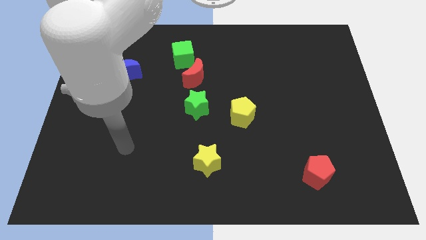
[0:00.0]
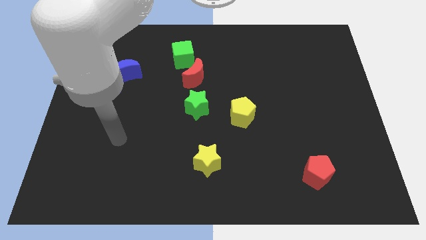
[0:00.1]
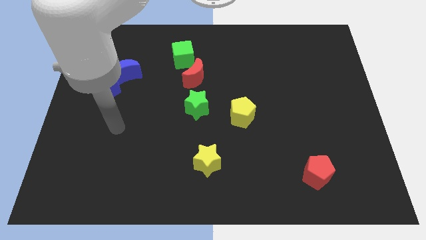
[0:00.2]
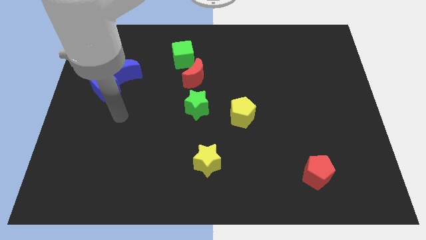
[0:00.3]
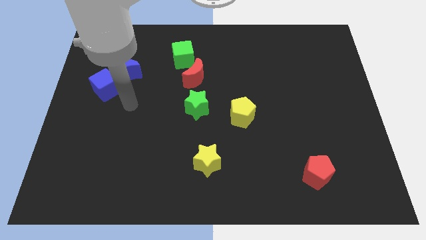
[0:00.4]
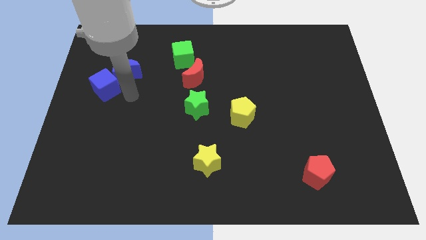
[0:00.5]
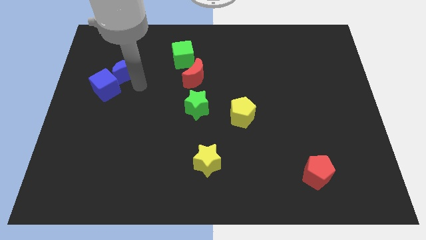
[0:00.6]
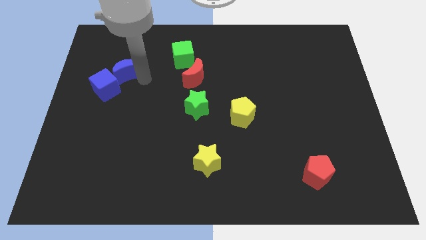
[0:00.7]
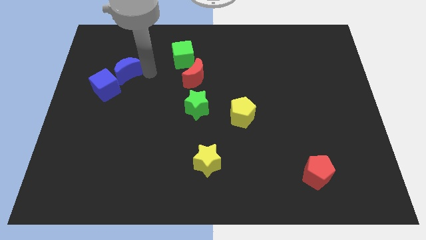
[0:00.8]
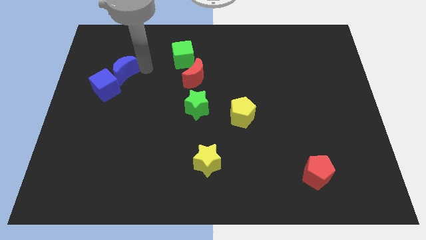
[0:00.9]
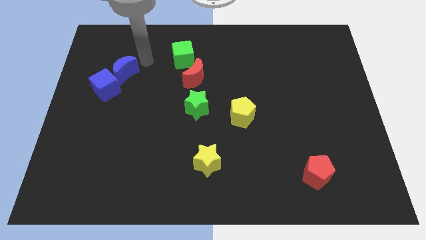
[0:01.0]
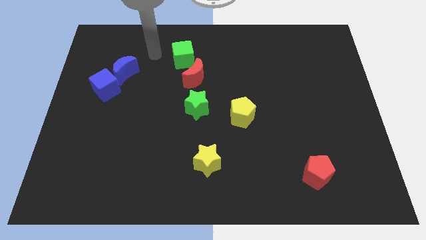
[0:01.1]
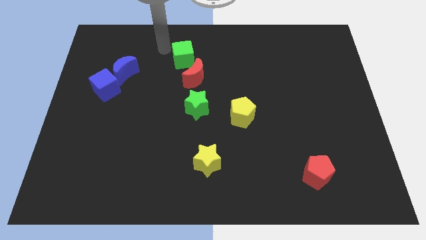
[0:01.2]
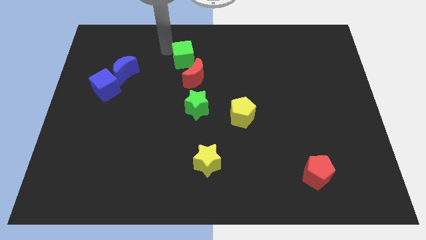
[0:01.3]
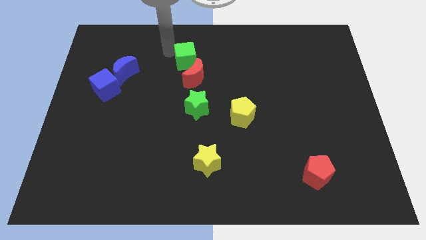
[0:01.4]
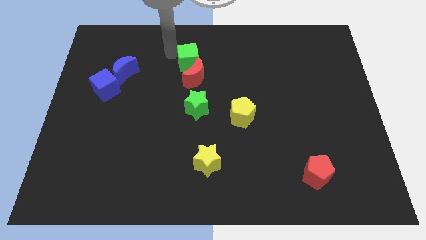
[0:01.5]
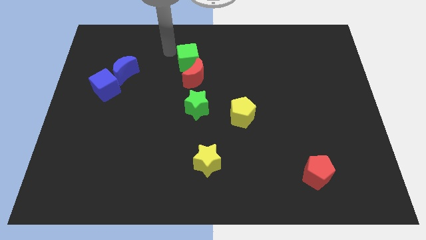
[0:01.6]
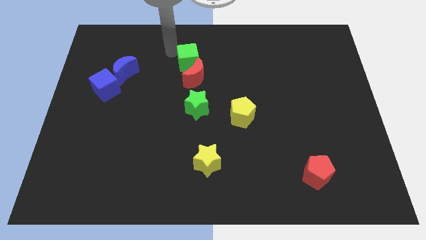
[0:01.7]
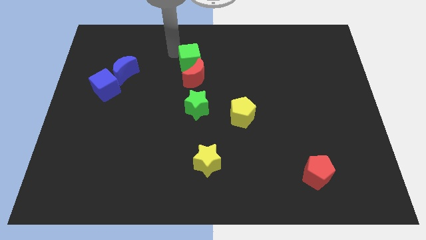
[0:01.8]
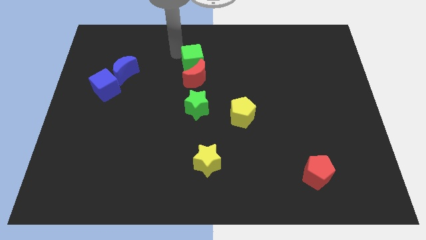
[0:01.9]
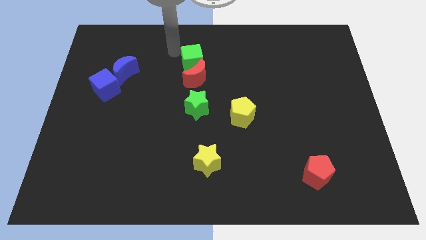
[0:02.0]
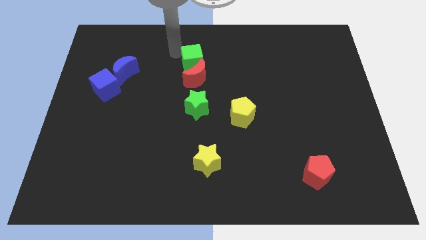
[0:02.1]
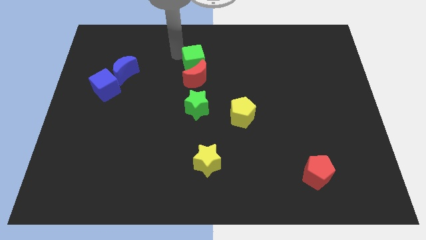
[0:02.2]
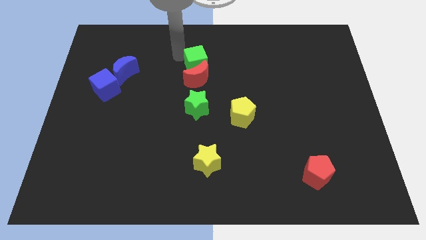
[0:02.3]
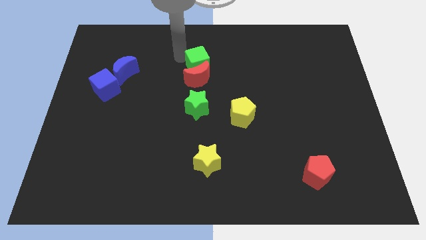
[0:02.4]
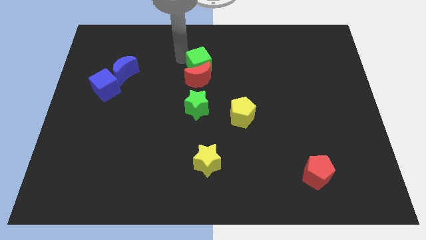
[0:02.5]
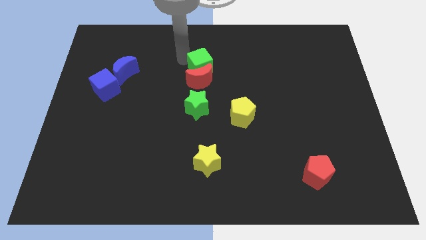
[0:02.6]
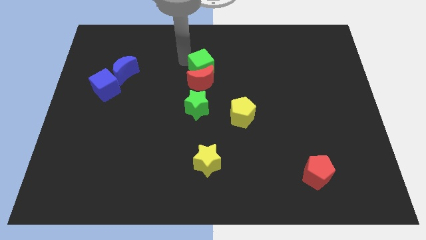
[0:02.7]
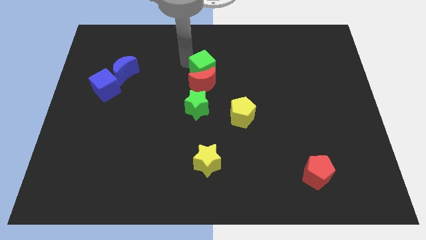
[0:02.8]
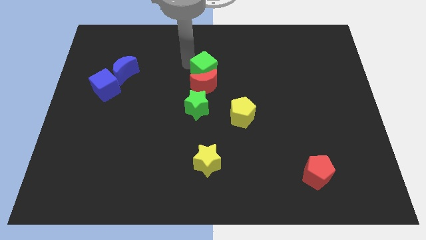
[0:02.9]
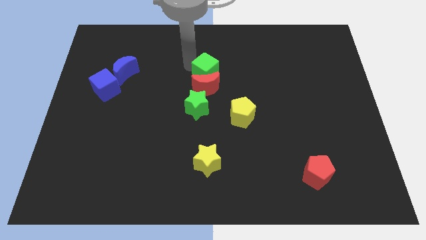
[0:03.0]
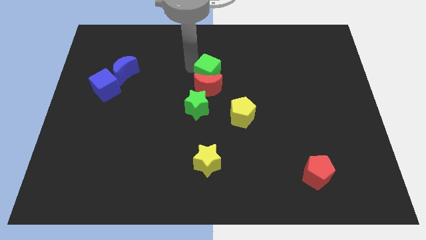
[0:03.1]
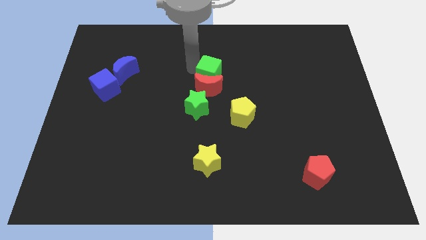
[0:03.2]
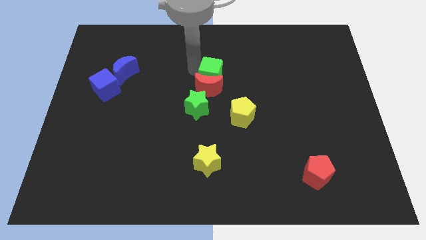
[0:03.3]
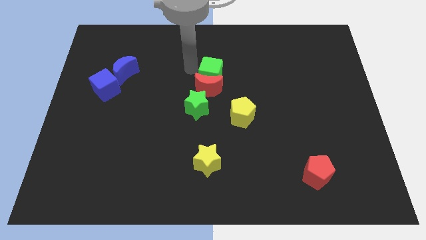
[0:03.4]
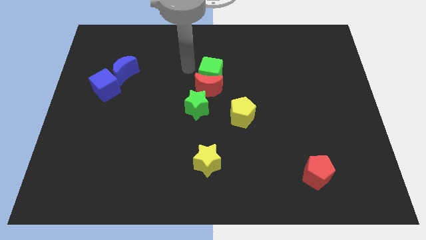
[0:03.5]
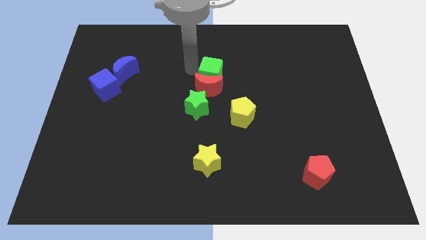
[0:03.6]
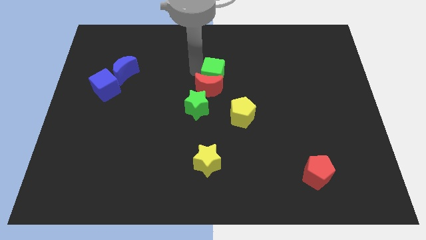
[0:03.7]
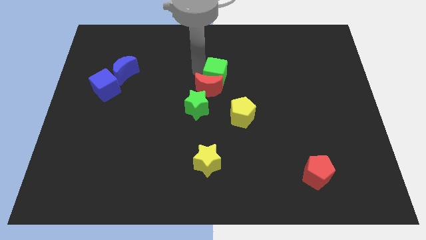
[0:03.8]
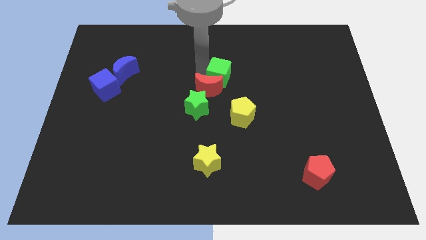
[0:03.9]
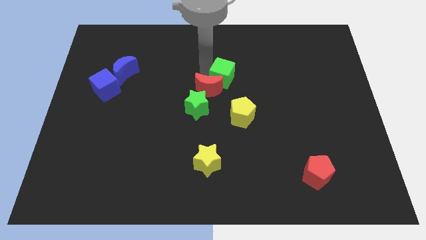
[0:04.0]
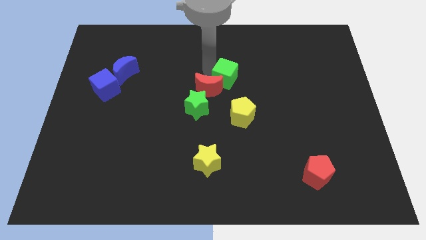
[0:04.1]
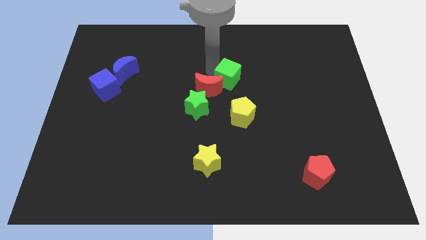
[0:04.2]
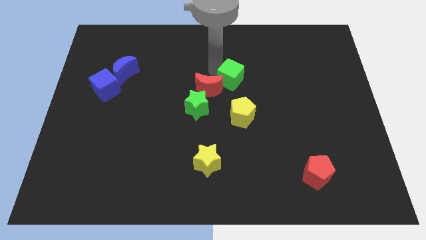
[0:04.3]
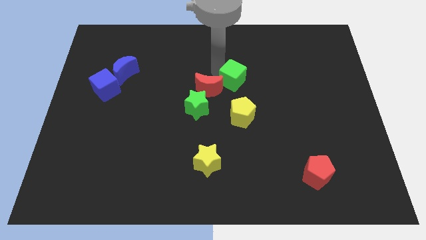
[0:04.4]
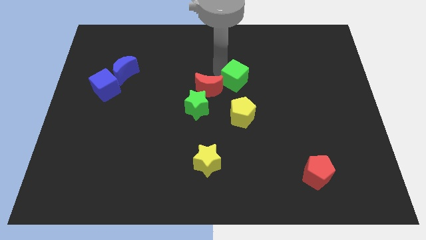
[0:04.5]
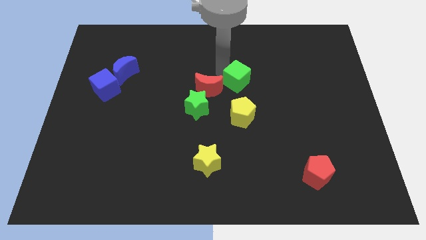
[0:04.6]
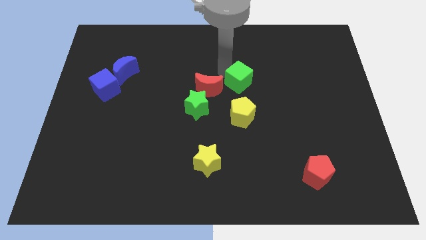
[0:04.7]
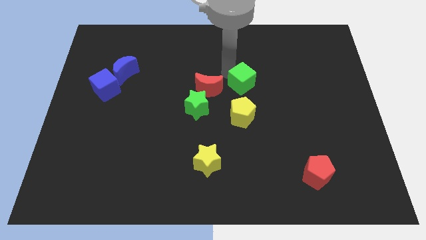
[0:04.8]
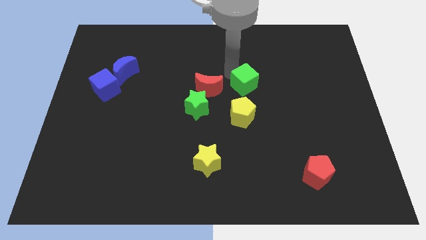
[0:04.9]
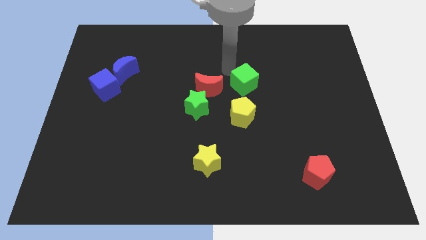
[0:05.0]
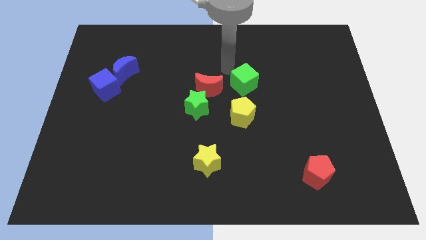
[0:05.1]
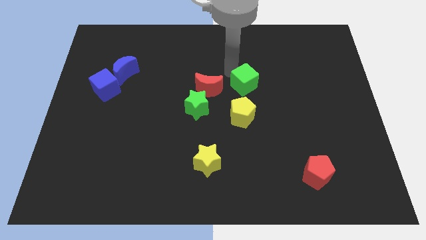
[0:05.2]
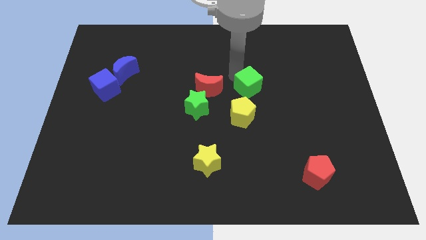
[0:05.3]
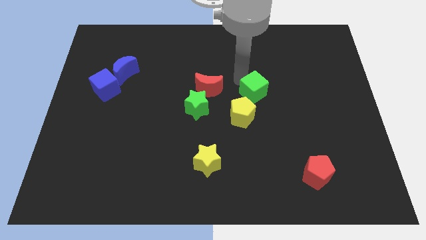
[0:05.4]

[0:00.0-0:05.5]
put the green cube to the top right of the yellow pentagon

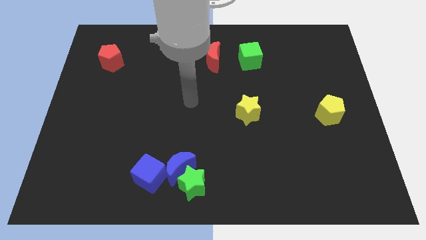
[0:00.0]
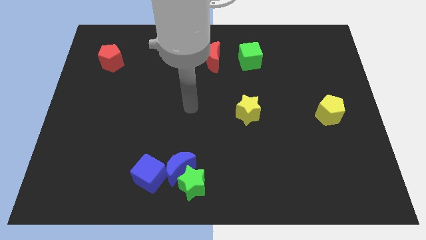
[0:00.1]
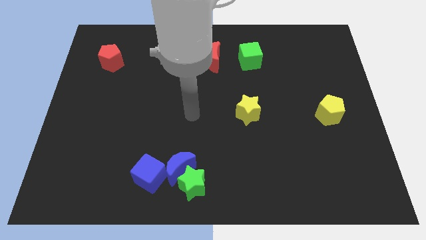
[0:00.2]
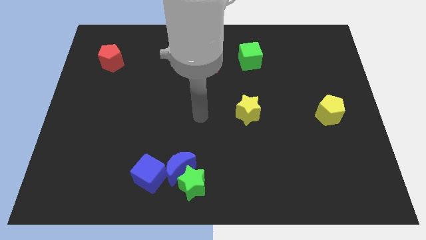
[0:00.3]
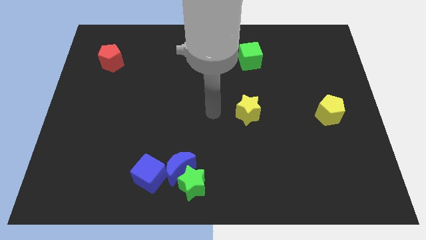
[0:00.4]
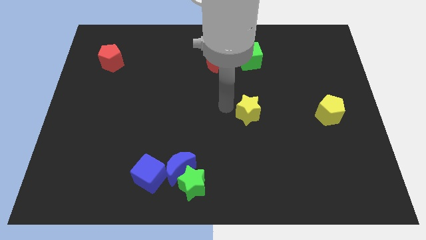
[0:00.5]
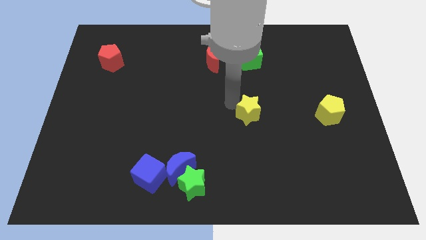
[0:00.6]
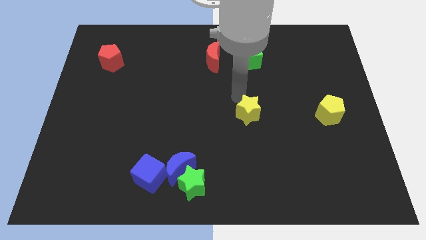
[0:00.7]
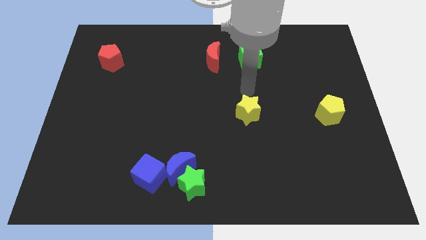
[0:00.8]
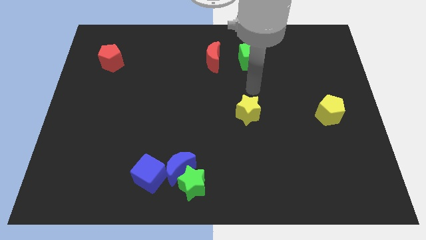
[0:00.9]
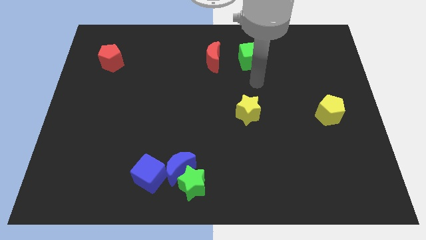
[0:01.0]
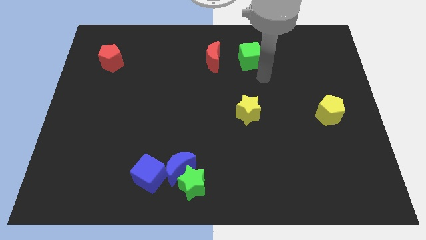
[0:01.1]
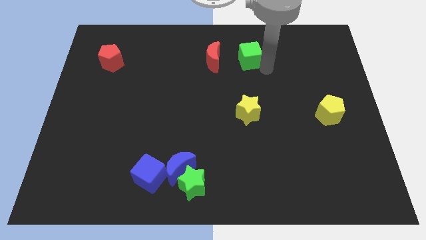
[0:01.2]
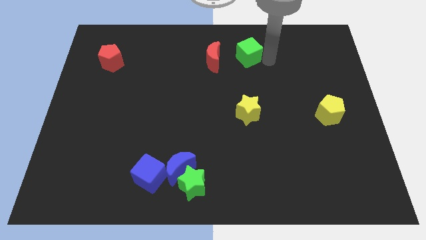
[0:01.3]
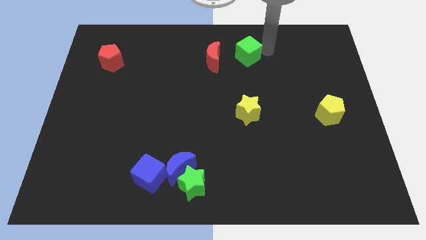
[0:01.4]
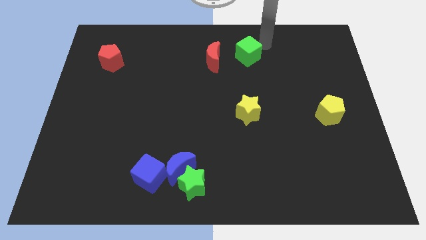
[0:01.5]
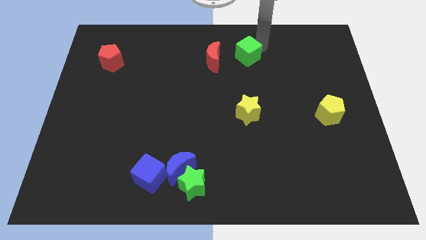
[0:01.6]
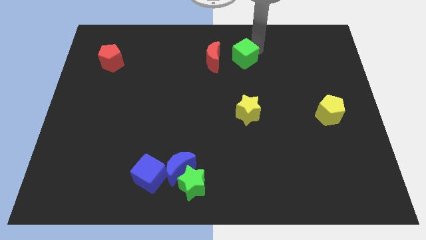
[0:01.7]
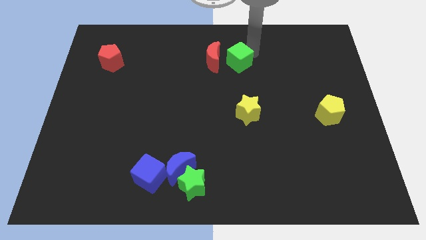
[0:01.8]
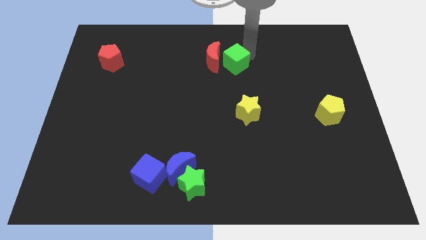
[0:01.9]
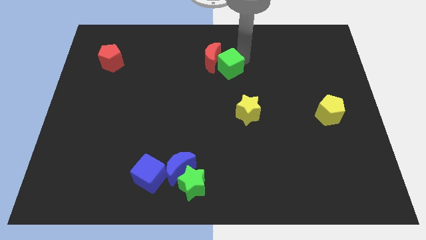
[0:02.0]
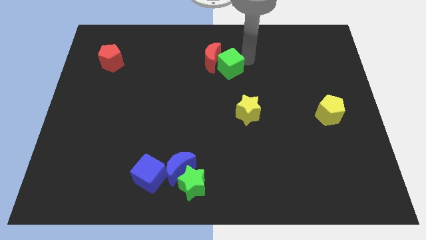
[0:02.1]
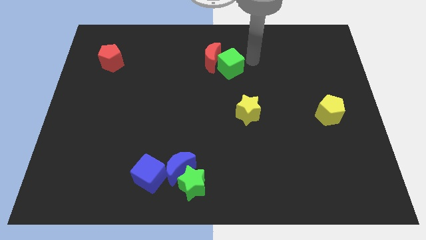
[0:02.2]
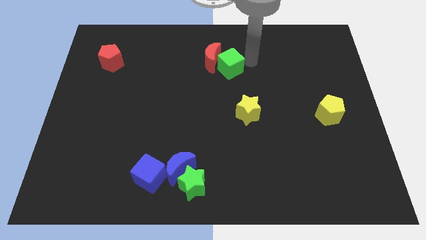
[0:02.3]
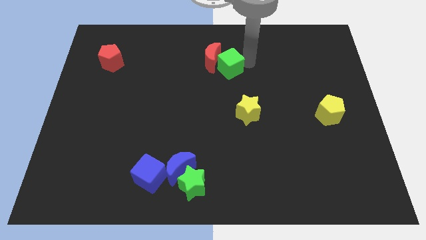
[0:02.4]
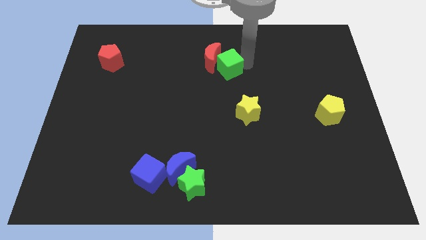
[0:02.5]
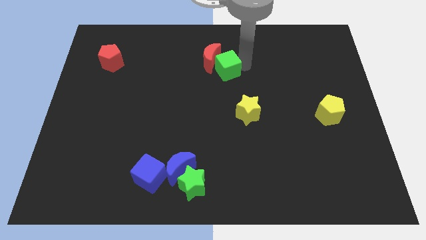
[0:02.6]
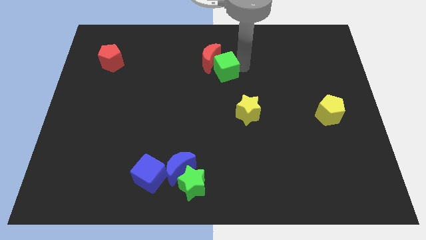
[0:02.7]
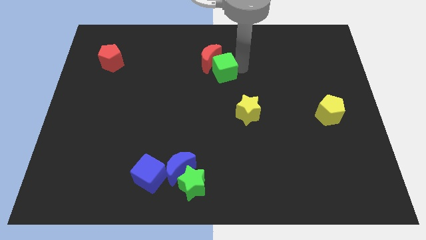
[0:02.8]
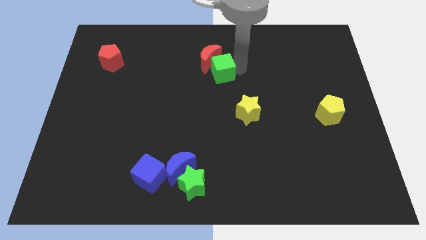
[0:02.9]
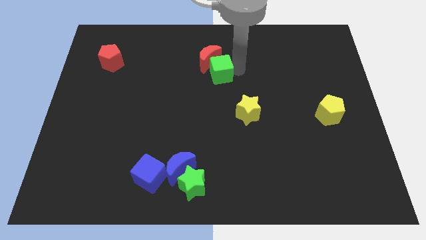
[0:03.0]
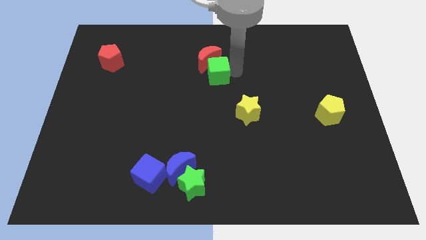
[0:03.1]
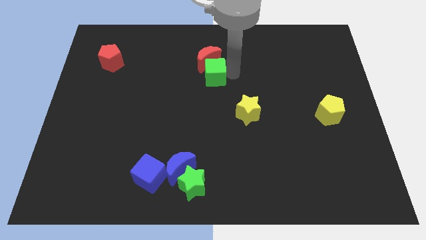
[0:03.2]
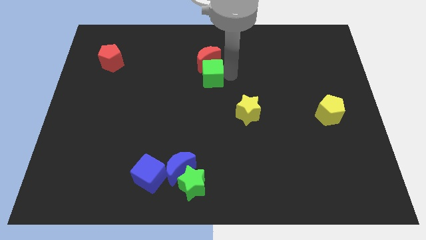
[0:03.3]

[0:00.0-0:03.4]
move the green cube diagonally down and to the left of the red moon
